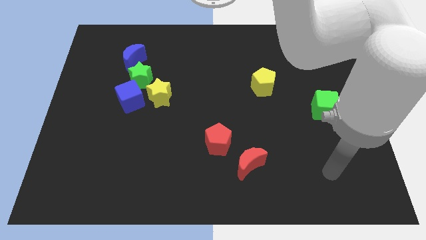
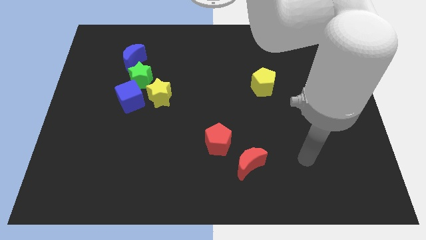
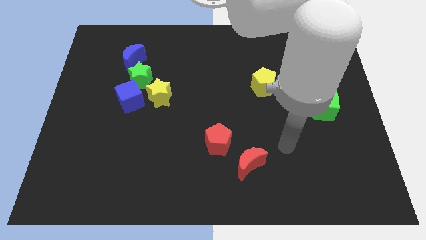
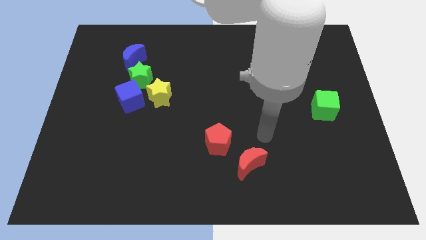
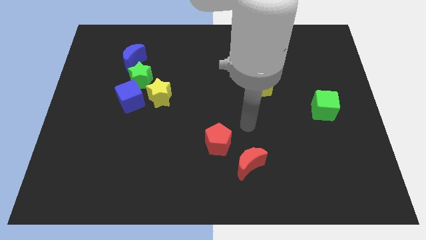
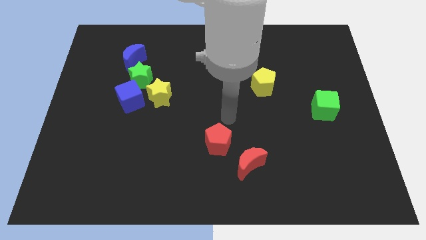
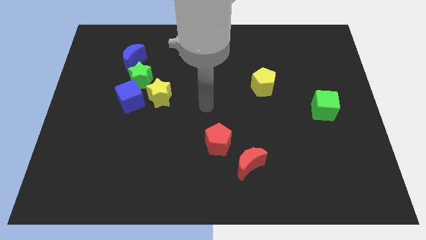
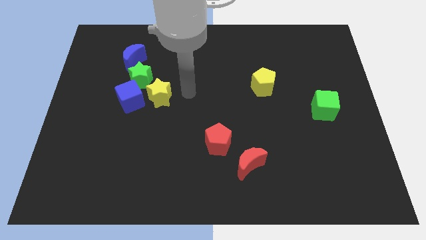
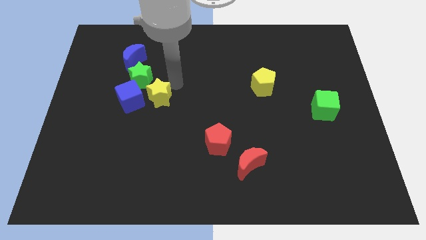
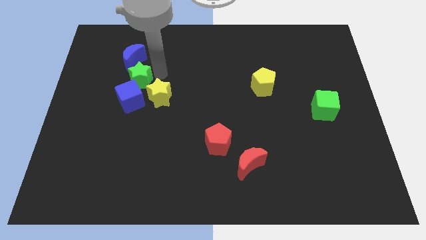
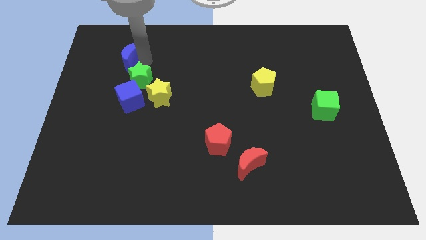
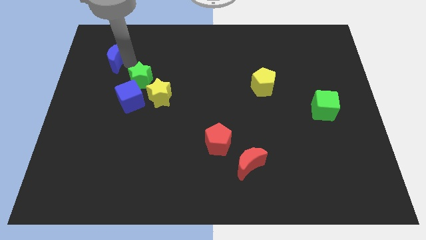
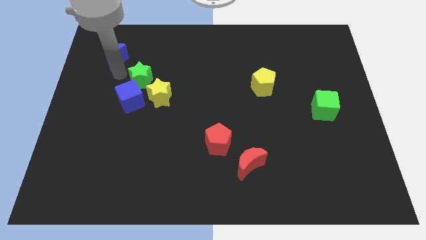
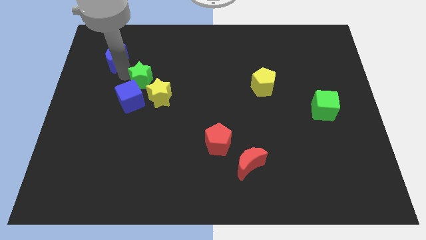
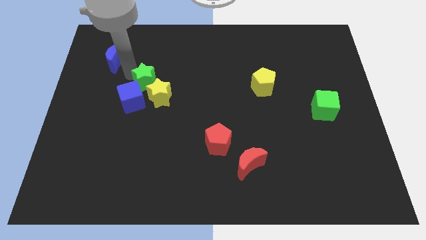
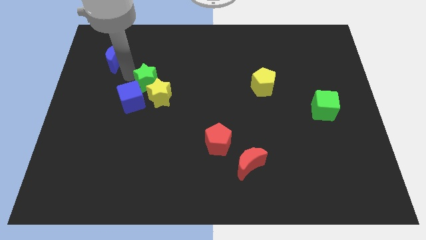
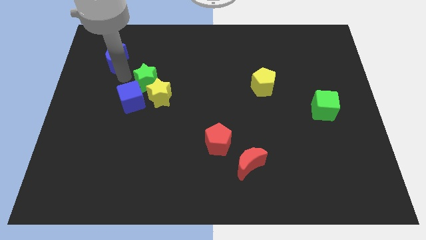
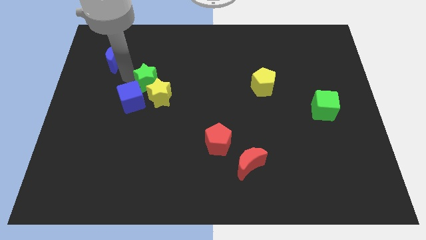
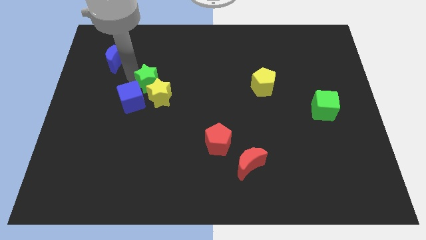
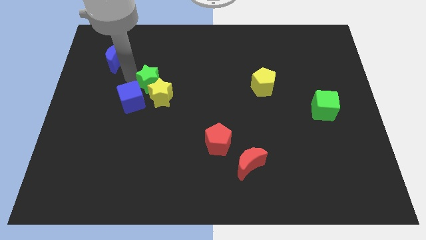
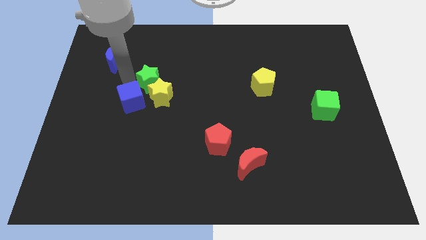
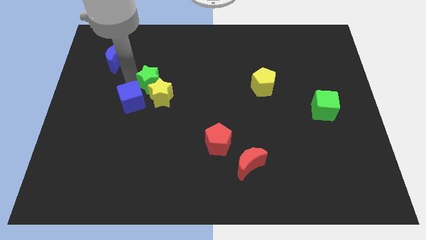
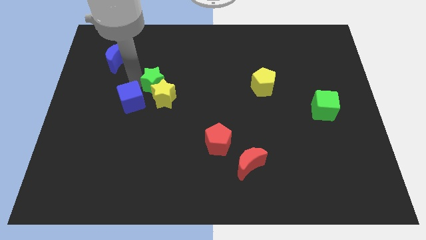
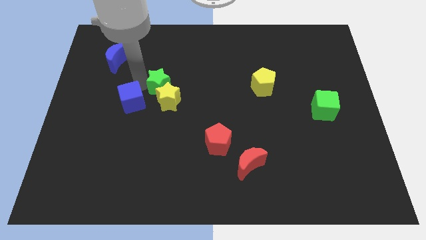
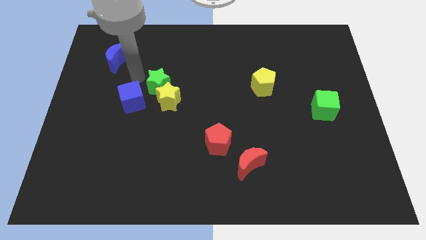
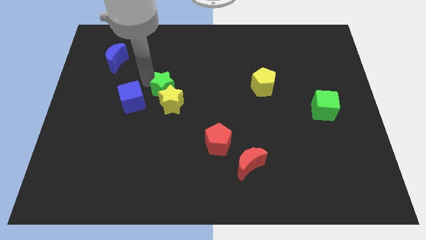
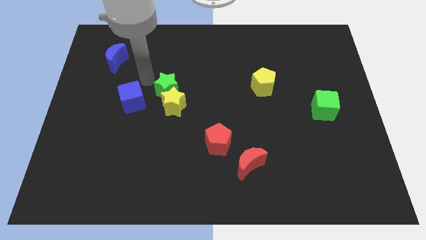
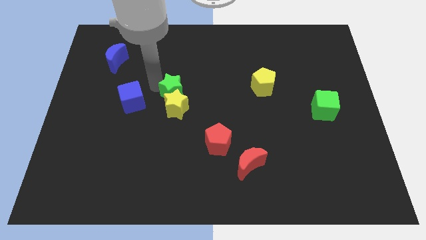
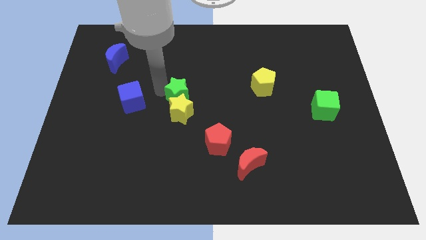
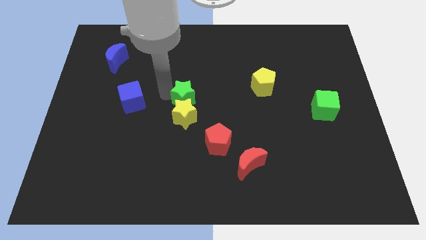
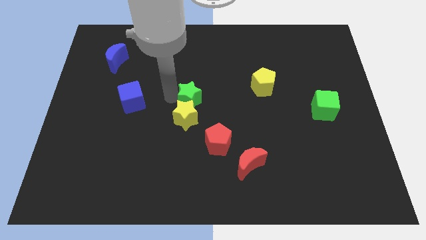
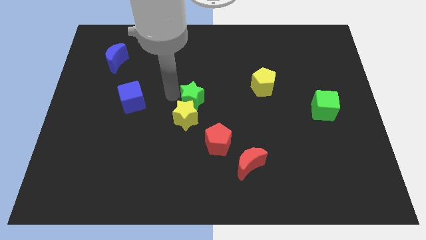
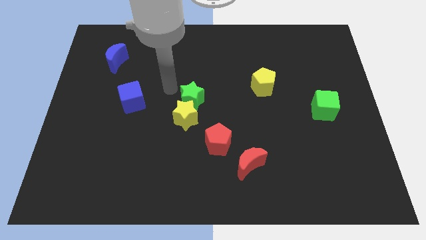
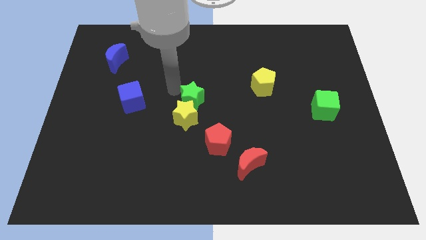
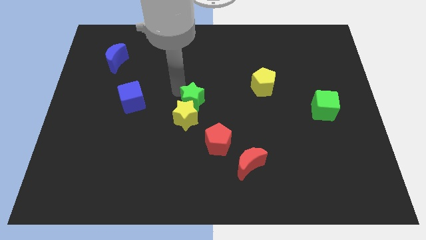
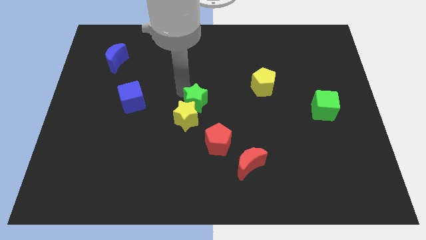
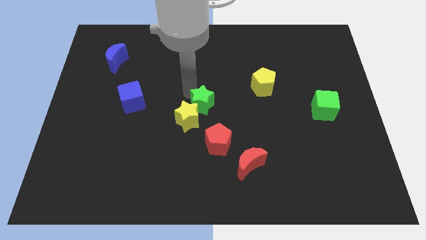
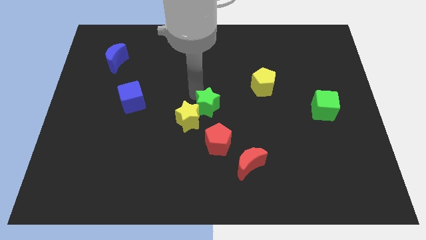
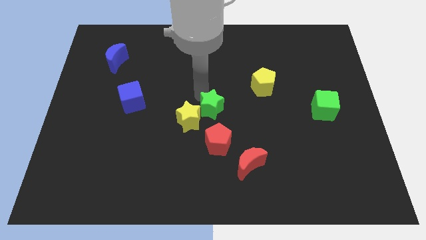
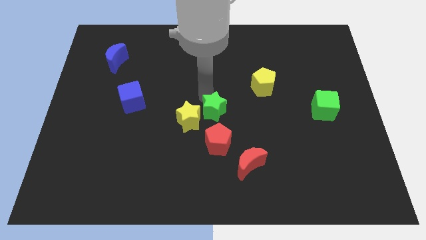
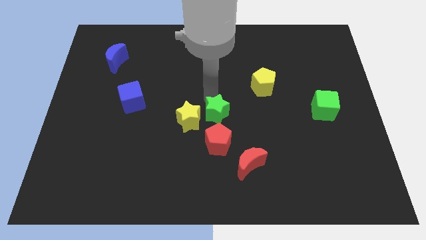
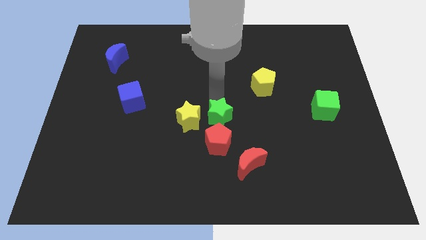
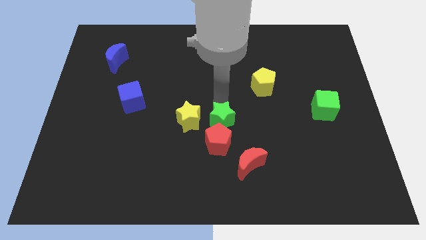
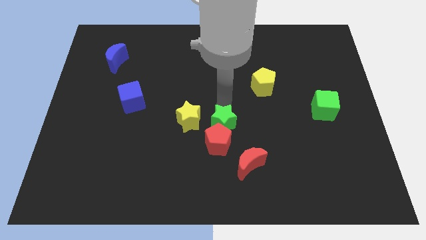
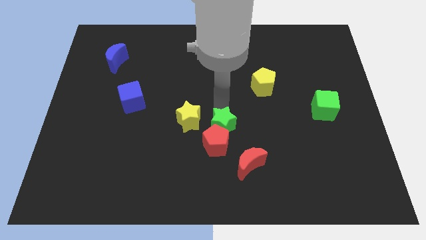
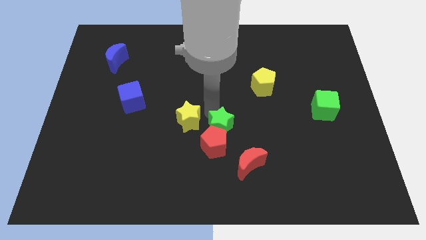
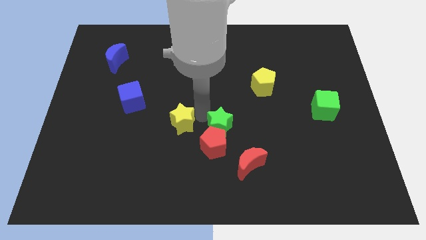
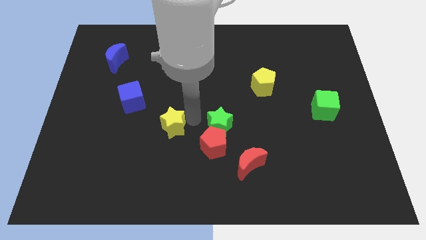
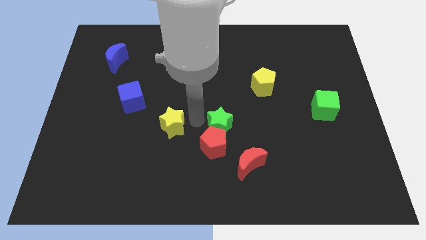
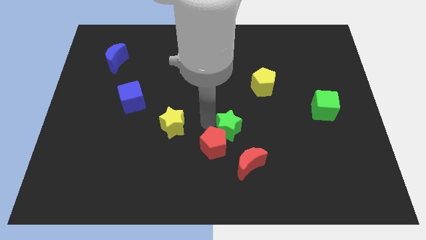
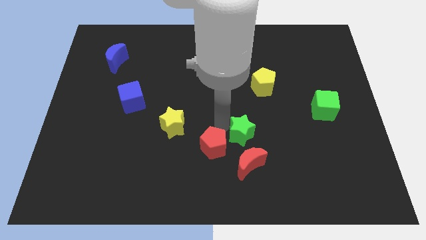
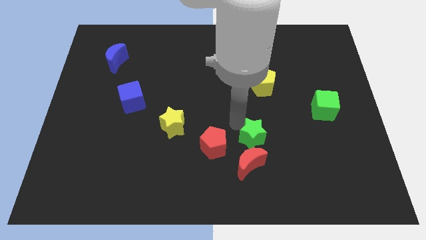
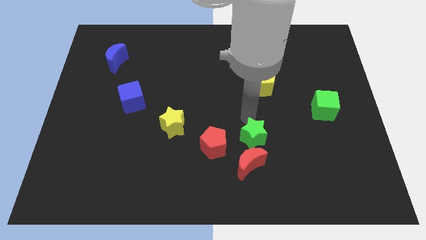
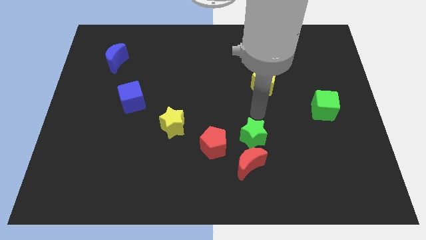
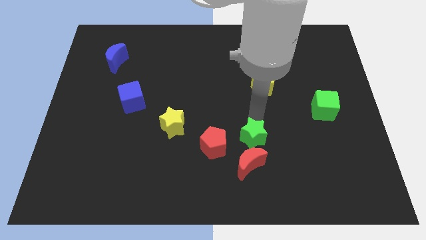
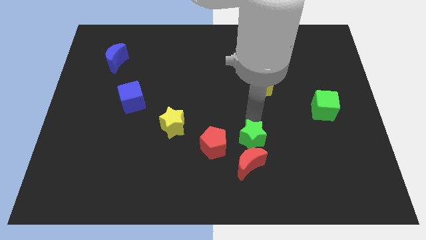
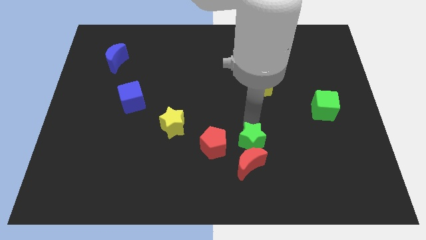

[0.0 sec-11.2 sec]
slide the green star close to the red moon

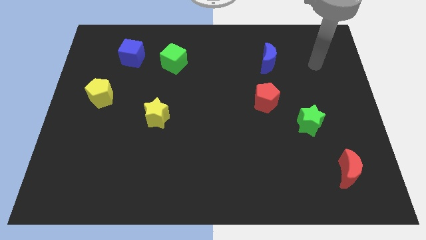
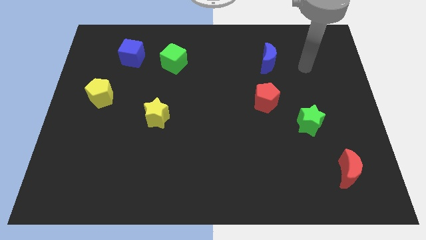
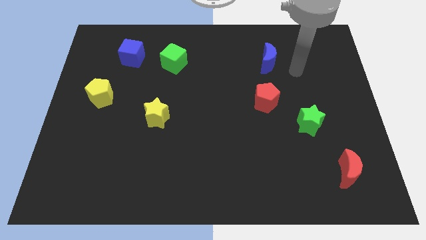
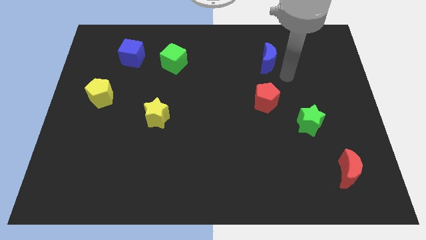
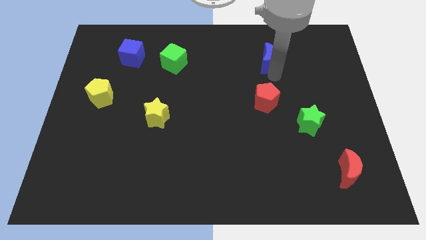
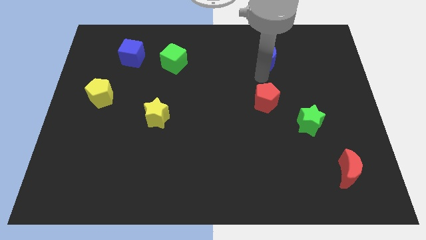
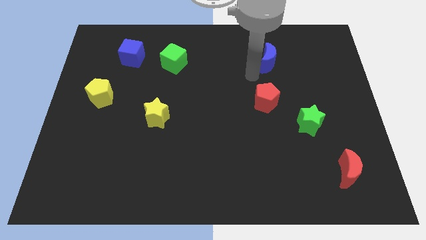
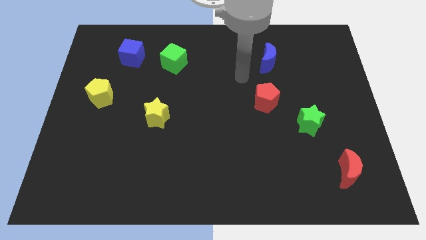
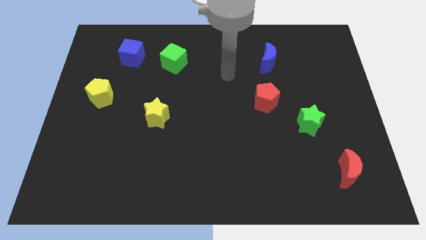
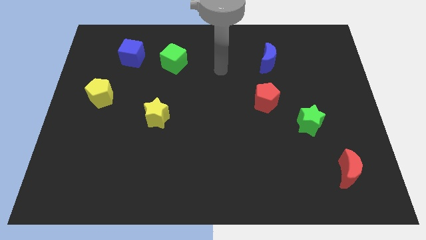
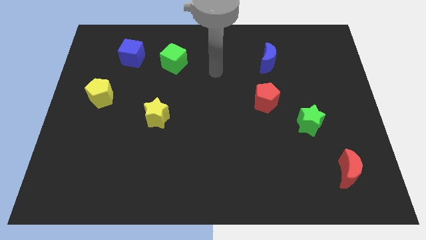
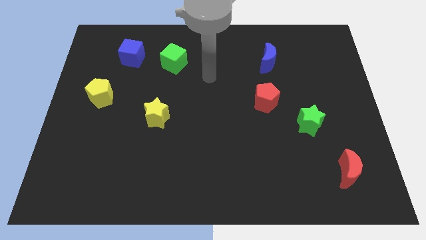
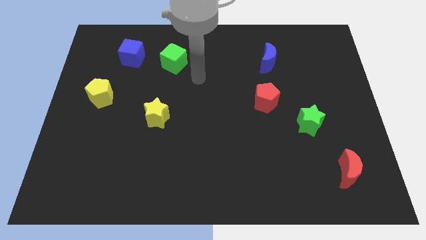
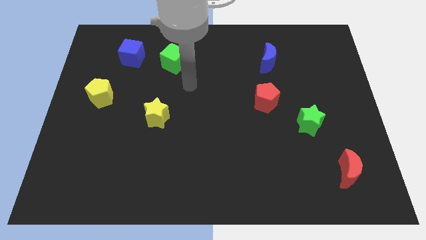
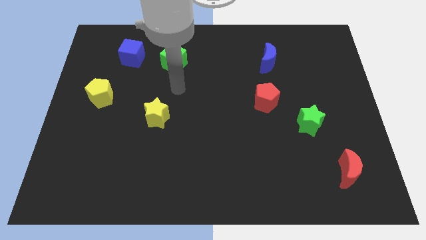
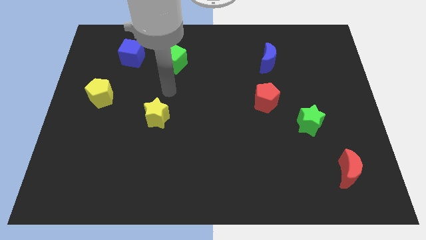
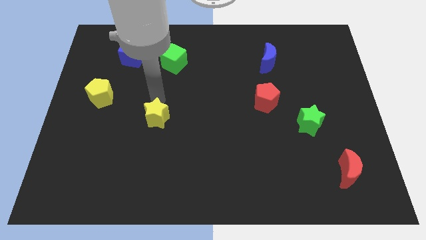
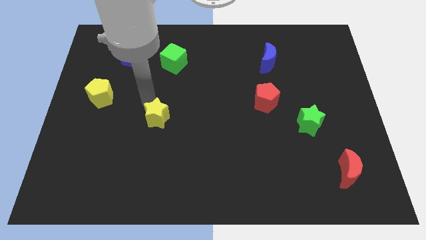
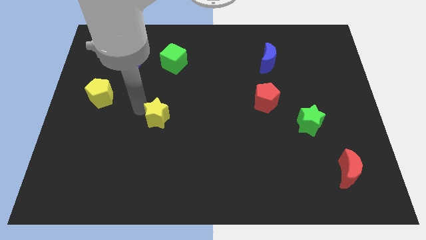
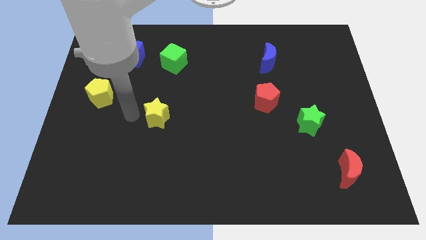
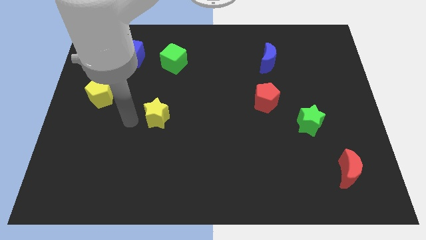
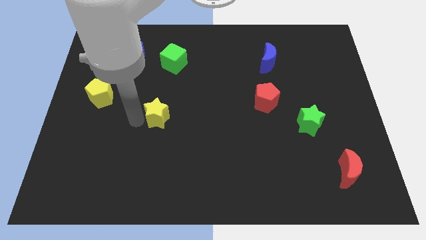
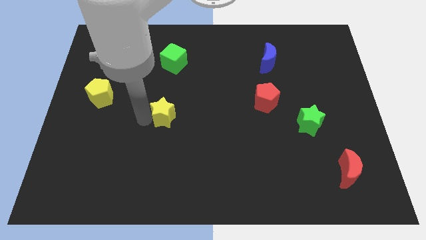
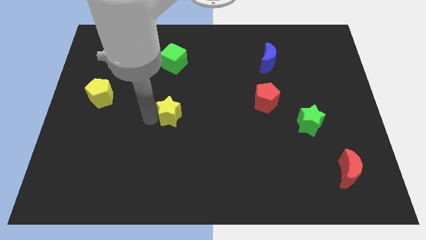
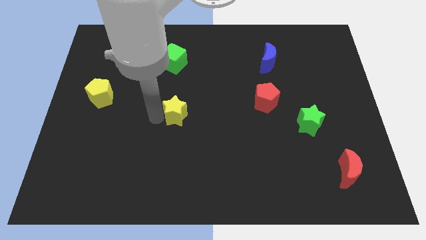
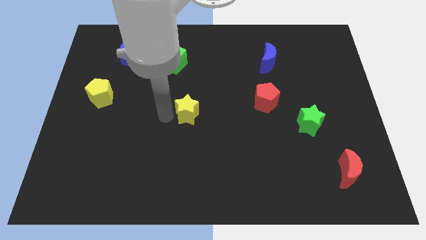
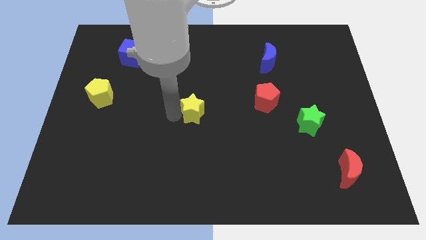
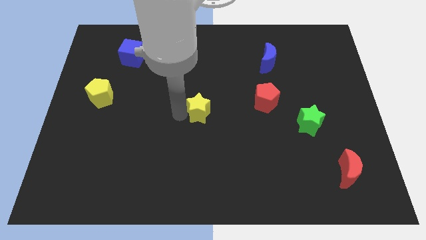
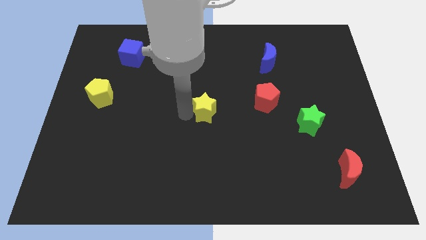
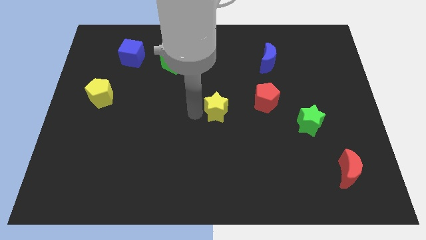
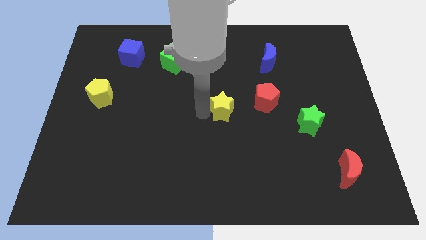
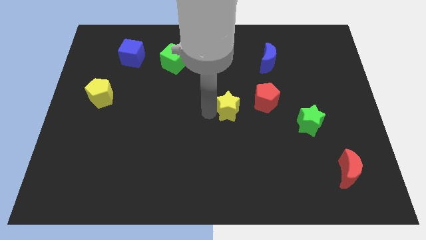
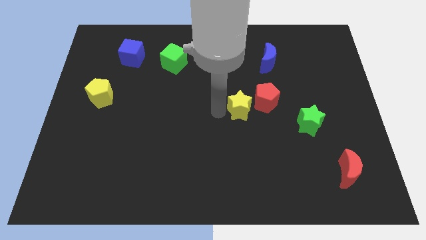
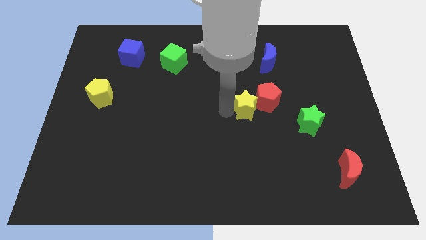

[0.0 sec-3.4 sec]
move the yellow star next to the red pentagon
